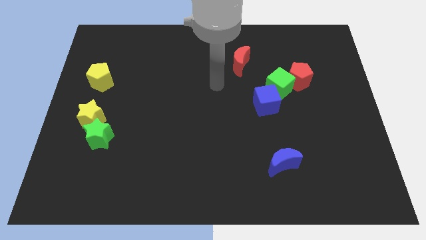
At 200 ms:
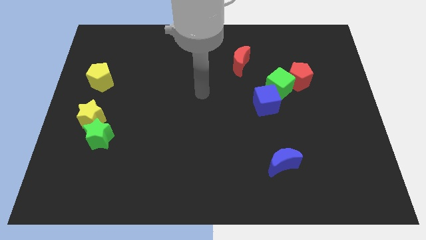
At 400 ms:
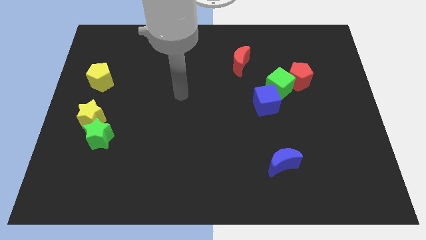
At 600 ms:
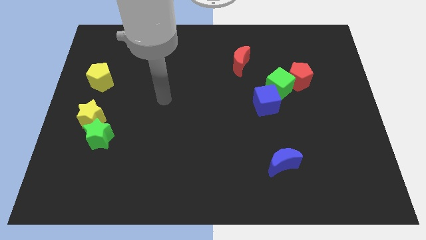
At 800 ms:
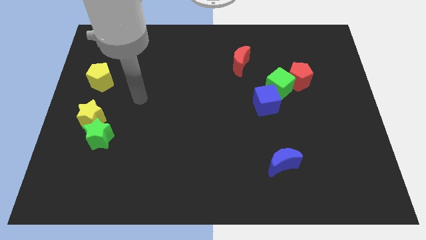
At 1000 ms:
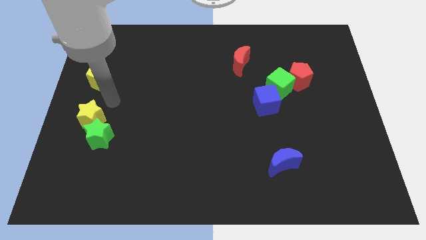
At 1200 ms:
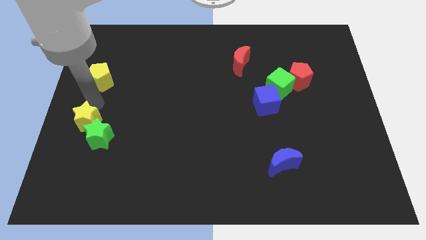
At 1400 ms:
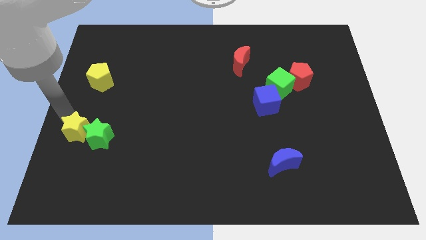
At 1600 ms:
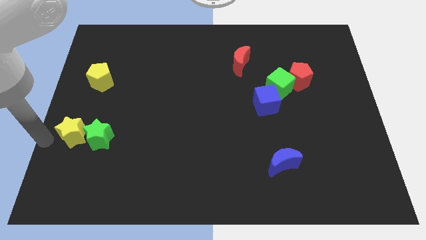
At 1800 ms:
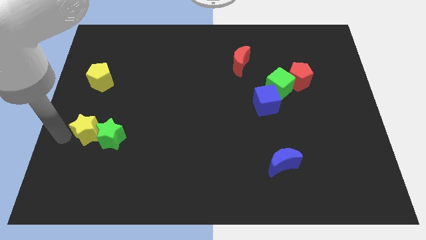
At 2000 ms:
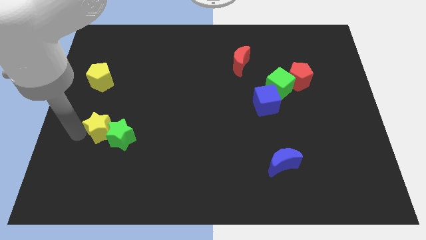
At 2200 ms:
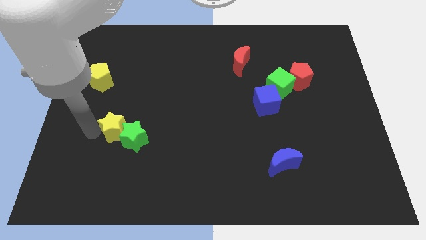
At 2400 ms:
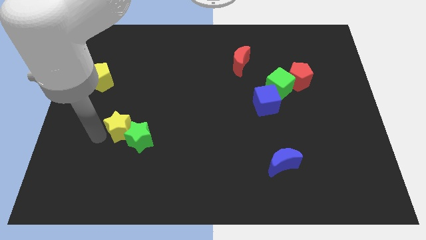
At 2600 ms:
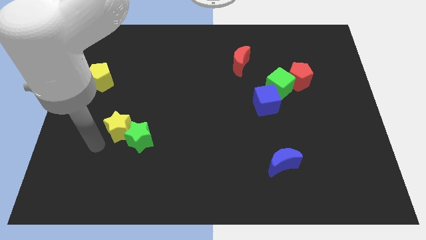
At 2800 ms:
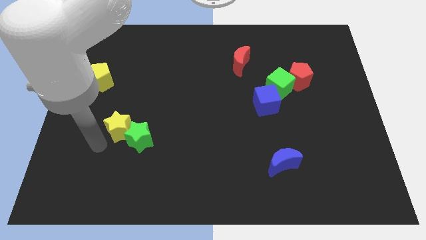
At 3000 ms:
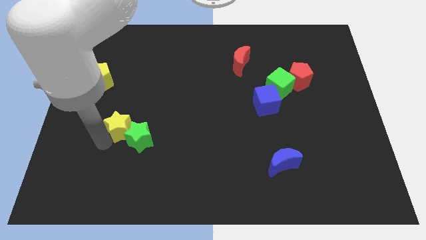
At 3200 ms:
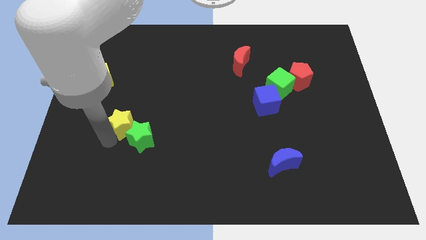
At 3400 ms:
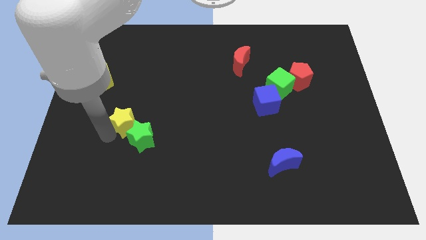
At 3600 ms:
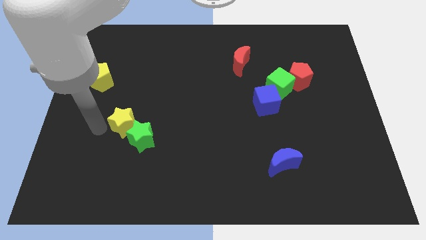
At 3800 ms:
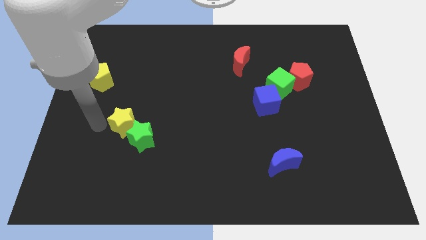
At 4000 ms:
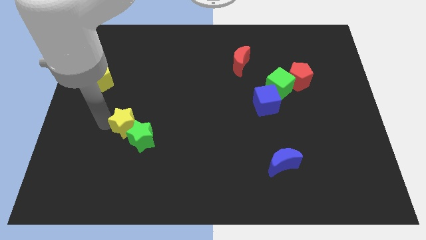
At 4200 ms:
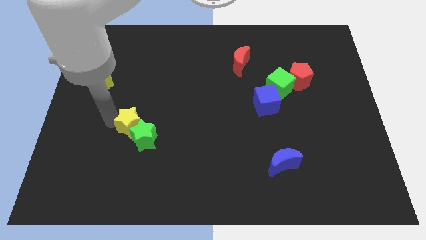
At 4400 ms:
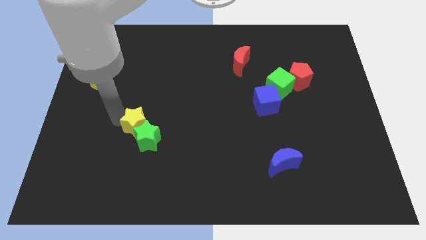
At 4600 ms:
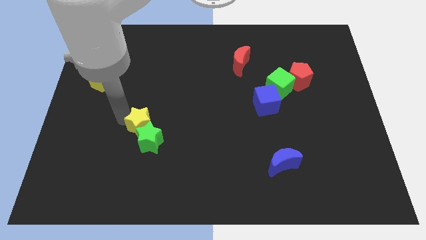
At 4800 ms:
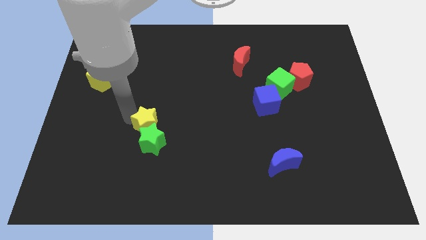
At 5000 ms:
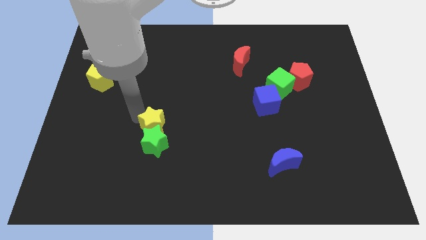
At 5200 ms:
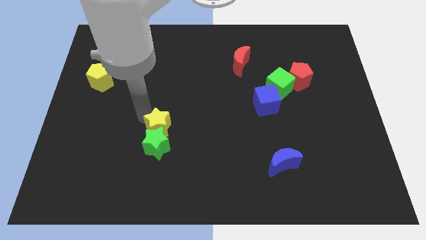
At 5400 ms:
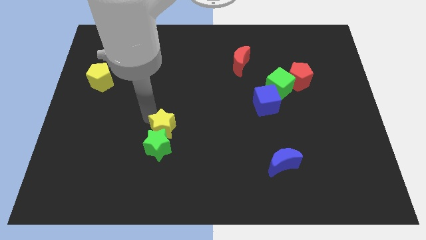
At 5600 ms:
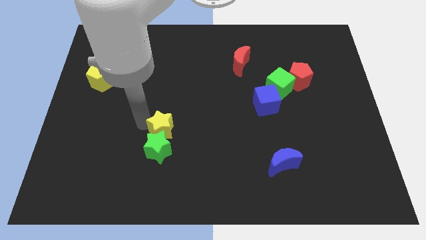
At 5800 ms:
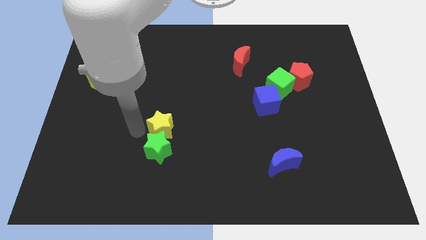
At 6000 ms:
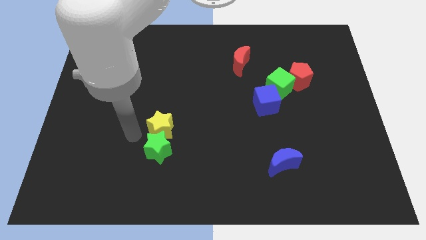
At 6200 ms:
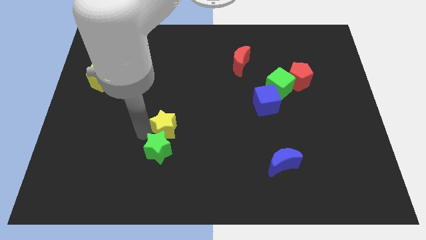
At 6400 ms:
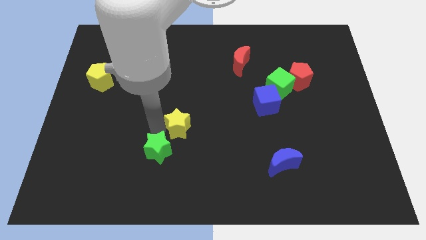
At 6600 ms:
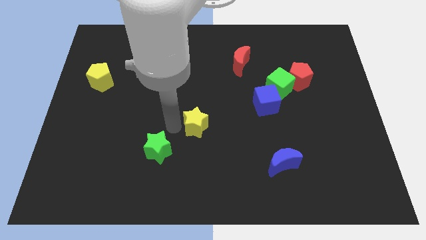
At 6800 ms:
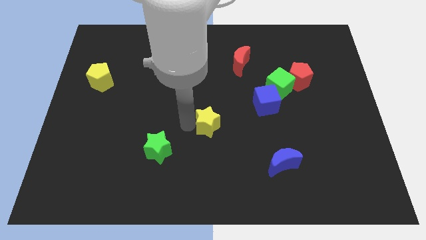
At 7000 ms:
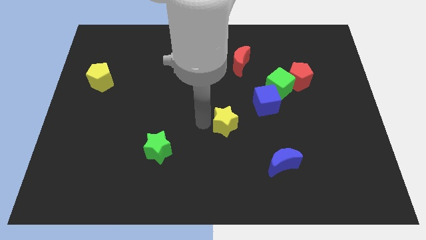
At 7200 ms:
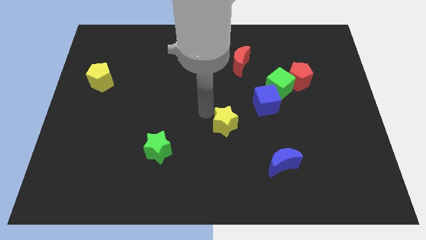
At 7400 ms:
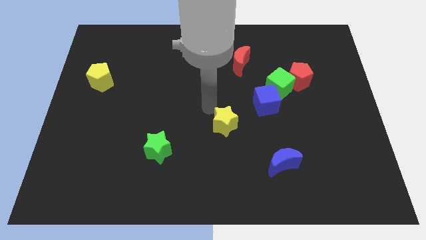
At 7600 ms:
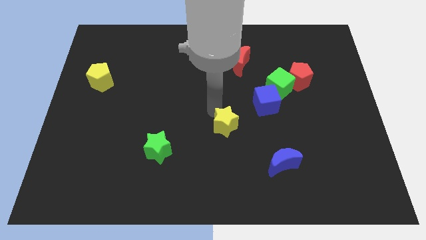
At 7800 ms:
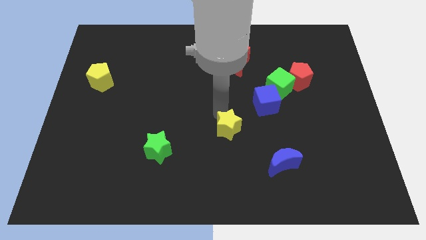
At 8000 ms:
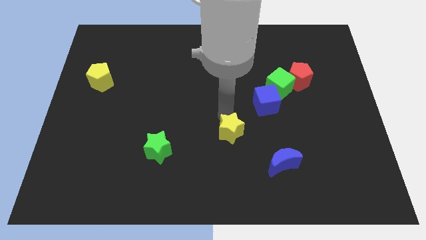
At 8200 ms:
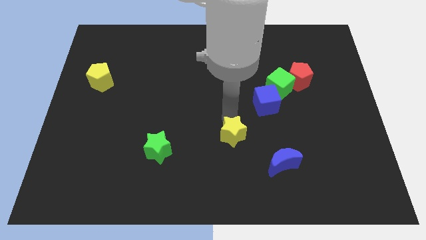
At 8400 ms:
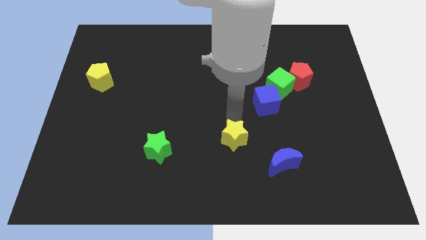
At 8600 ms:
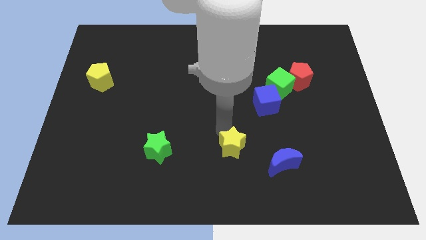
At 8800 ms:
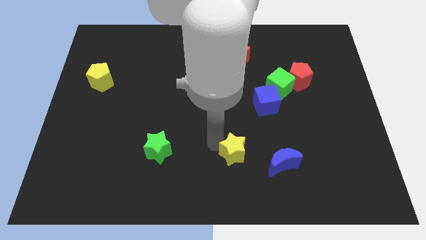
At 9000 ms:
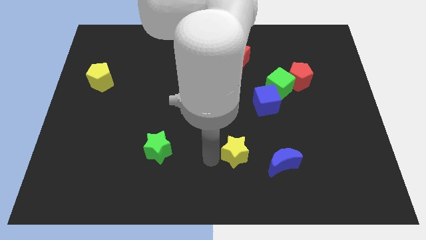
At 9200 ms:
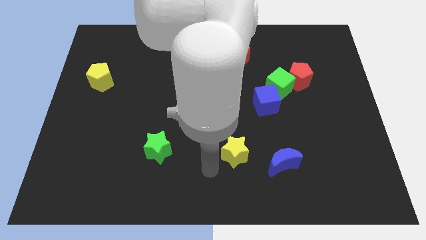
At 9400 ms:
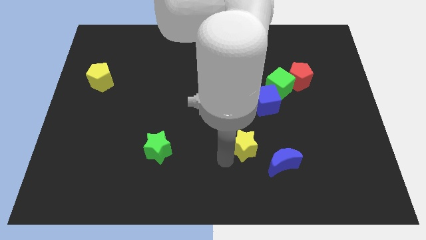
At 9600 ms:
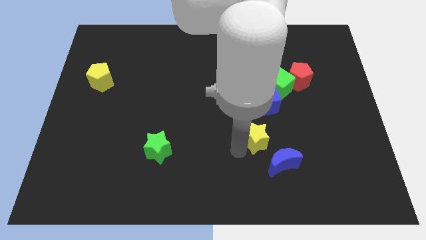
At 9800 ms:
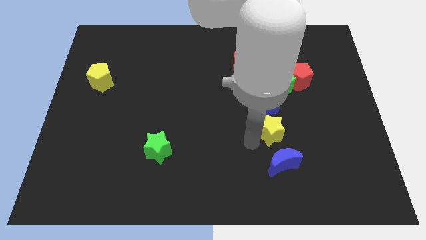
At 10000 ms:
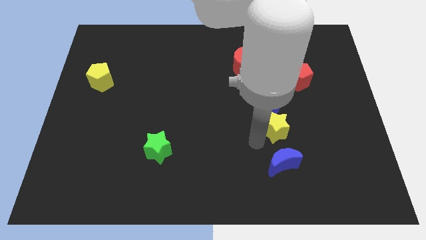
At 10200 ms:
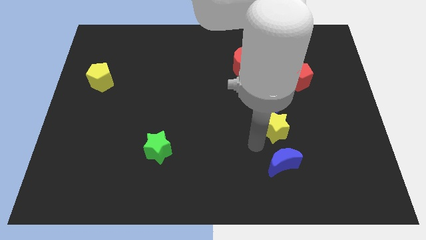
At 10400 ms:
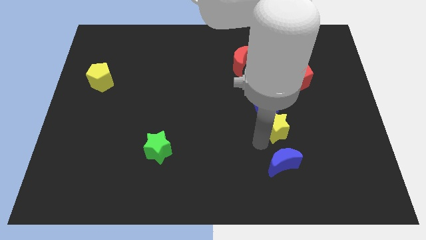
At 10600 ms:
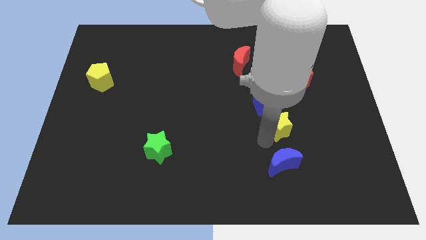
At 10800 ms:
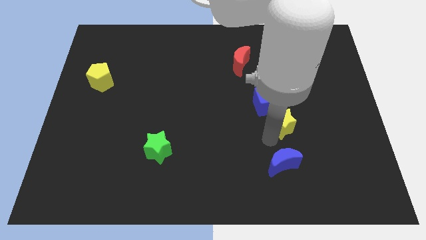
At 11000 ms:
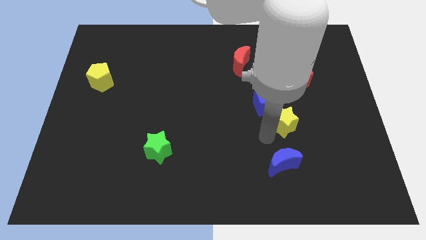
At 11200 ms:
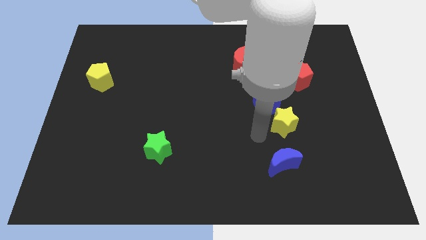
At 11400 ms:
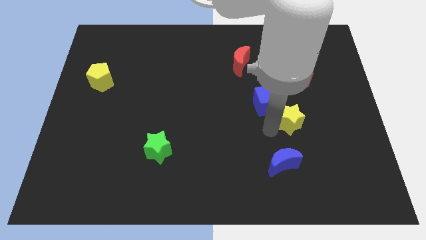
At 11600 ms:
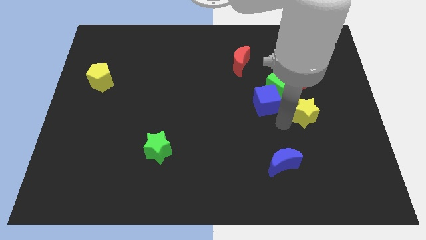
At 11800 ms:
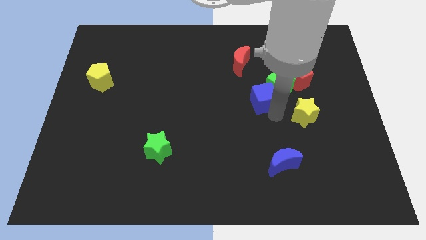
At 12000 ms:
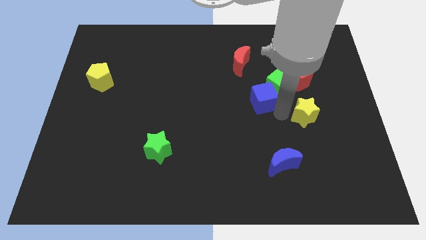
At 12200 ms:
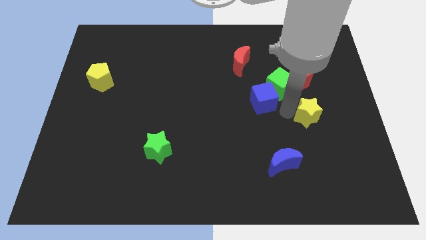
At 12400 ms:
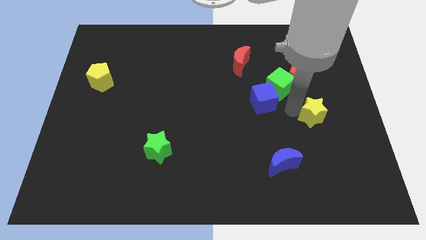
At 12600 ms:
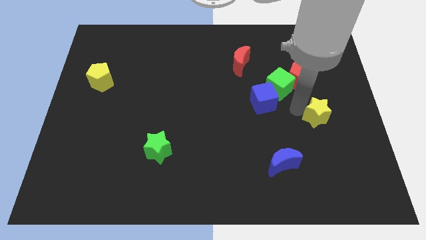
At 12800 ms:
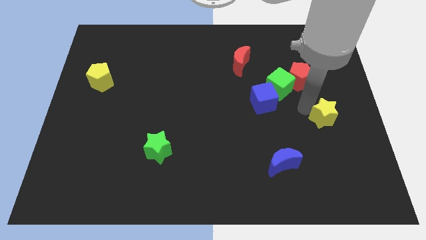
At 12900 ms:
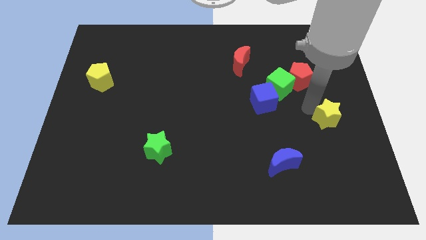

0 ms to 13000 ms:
move the yellow star to the right side of the board

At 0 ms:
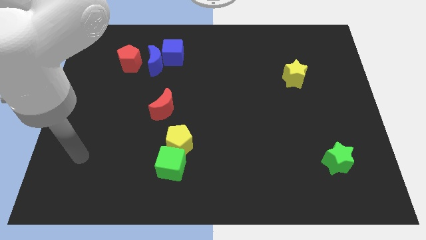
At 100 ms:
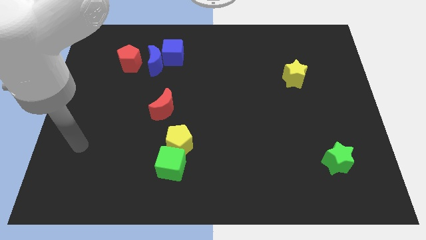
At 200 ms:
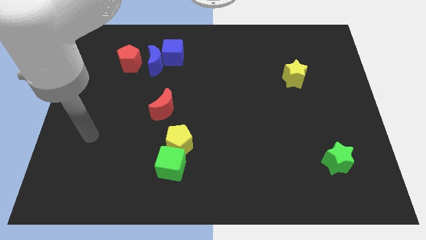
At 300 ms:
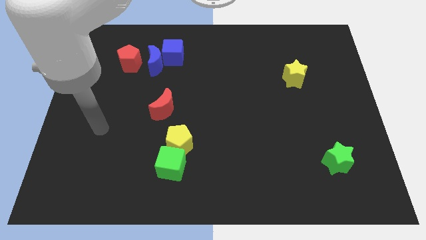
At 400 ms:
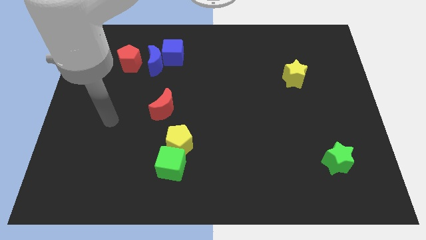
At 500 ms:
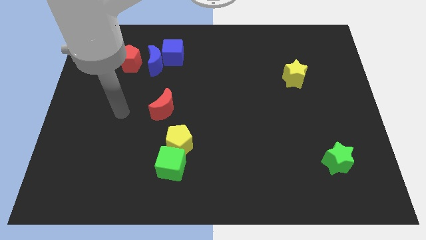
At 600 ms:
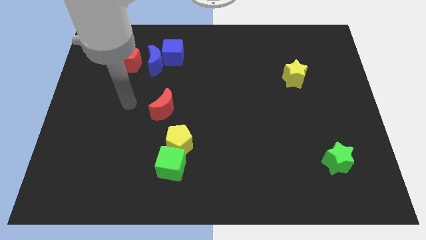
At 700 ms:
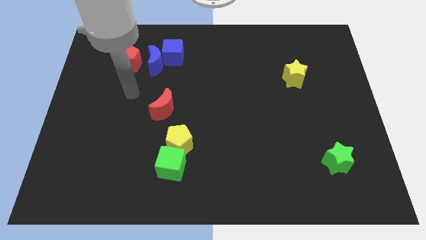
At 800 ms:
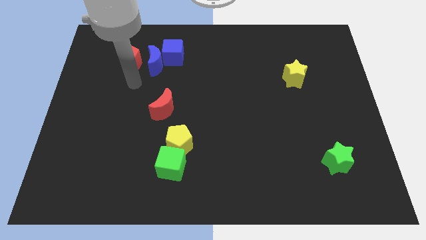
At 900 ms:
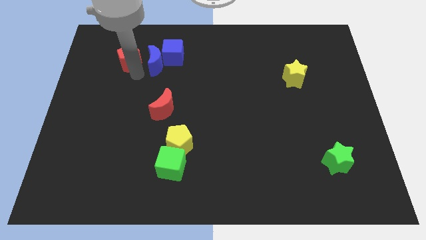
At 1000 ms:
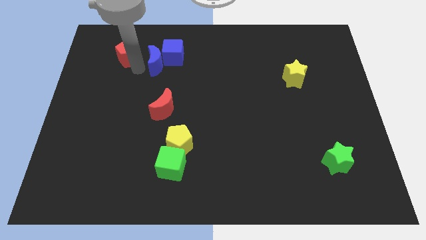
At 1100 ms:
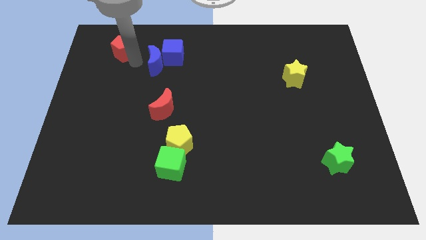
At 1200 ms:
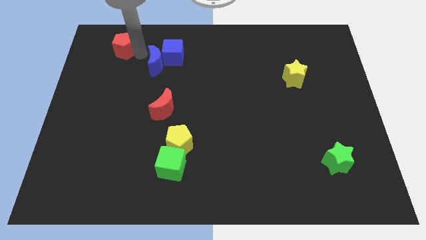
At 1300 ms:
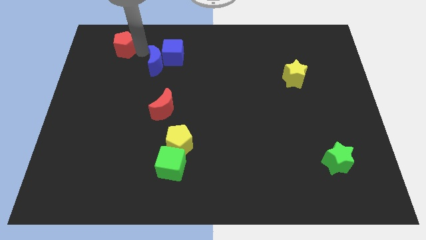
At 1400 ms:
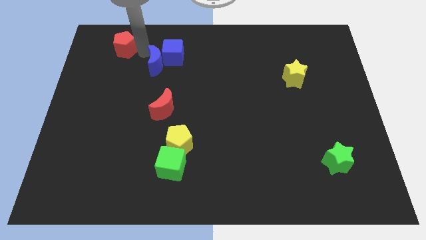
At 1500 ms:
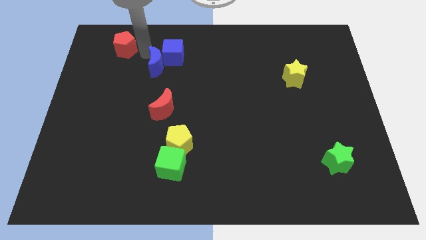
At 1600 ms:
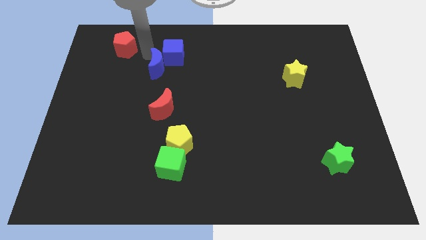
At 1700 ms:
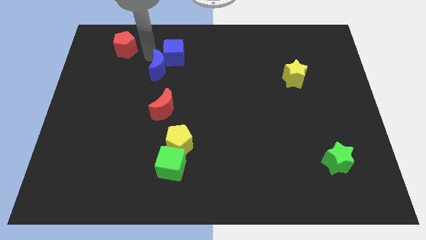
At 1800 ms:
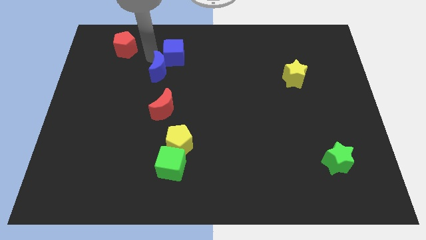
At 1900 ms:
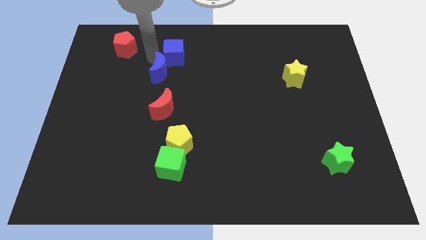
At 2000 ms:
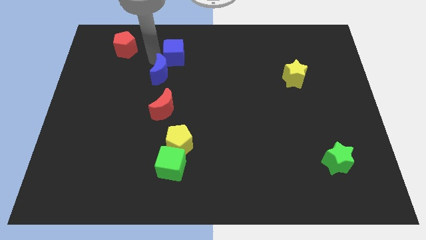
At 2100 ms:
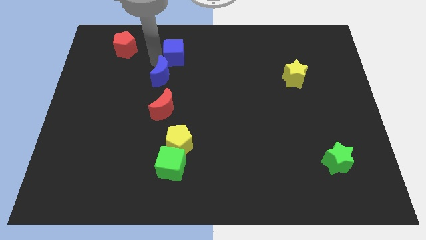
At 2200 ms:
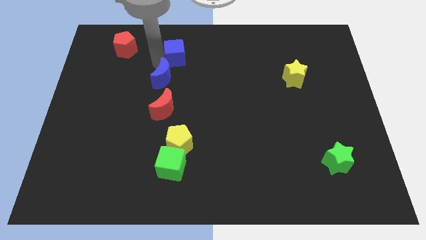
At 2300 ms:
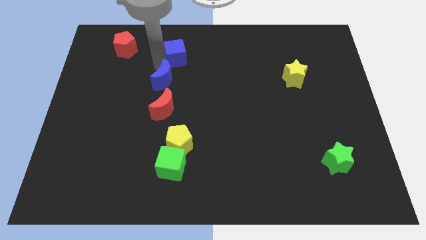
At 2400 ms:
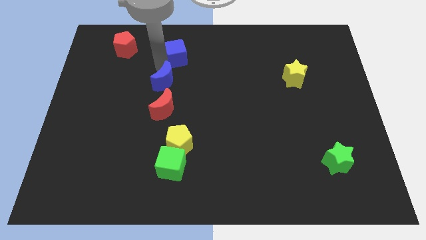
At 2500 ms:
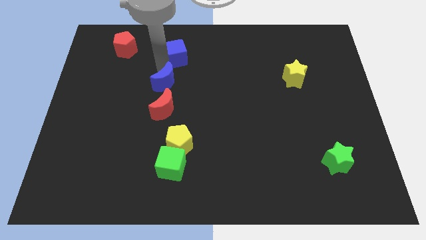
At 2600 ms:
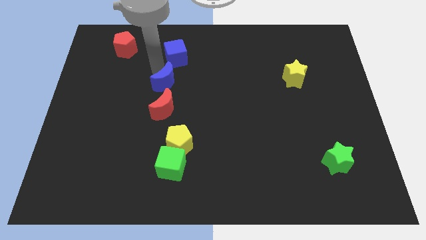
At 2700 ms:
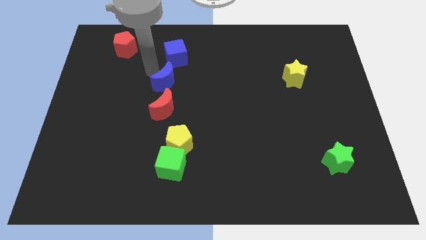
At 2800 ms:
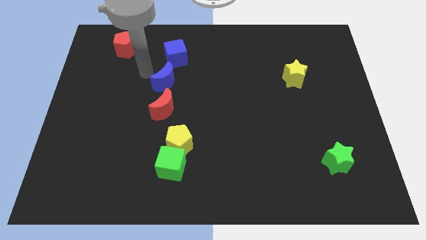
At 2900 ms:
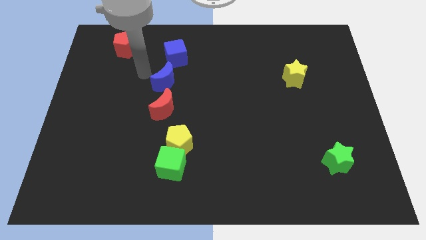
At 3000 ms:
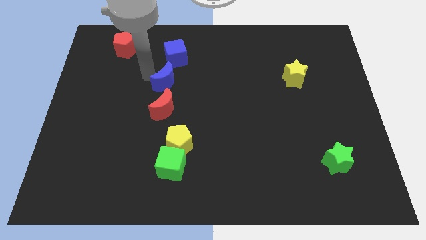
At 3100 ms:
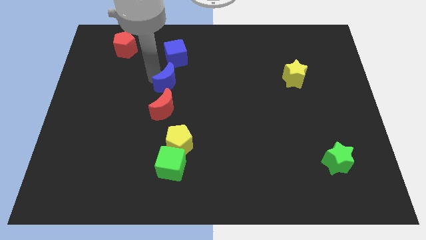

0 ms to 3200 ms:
slide the blue moon to the middle
